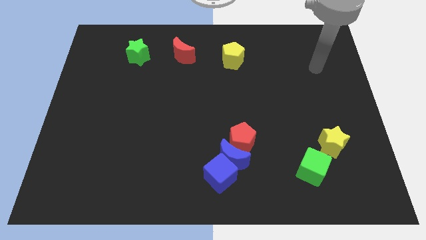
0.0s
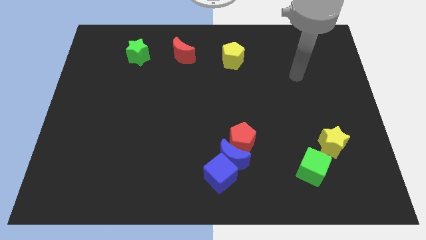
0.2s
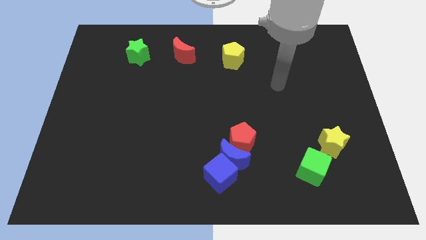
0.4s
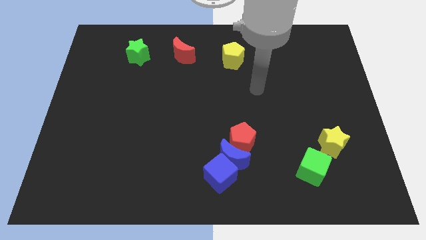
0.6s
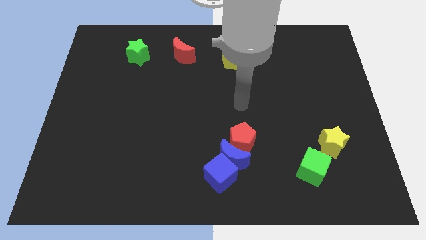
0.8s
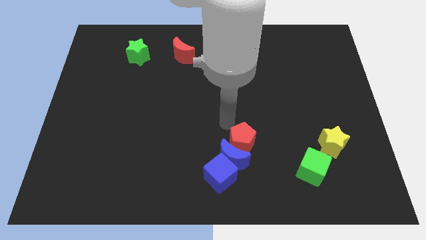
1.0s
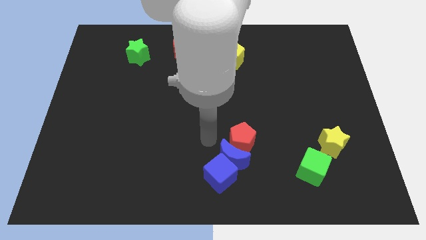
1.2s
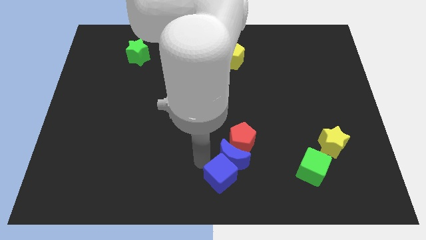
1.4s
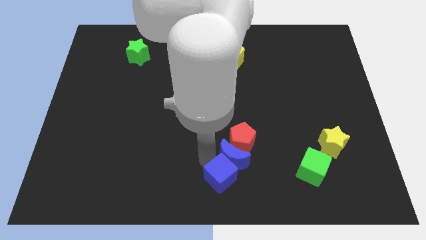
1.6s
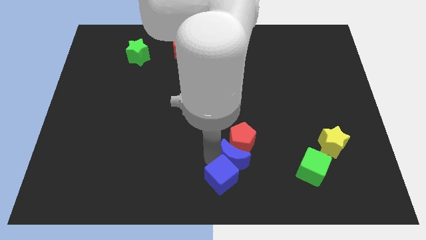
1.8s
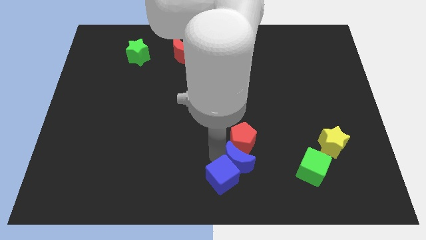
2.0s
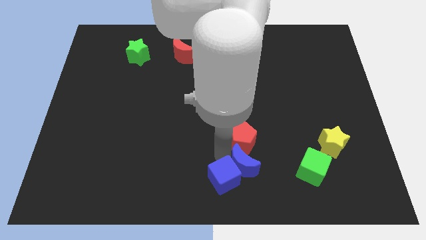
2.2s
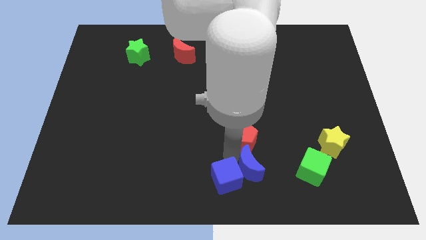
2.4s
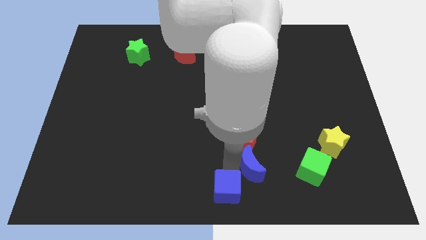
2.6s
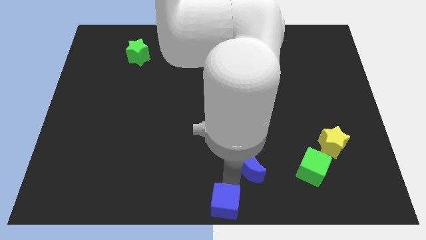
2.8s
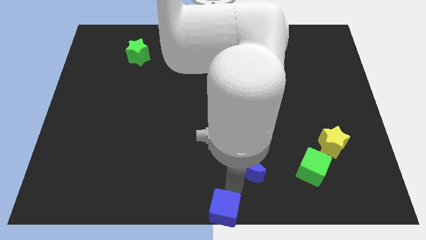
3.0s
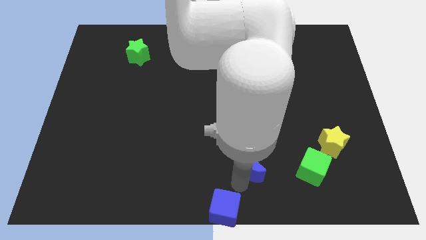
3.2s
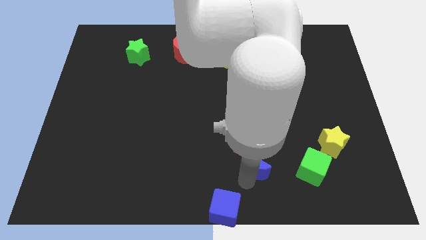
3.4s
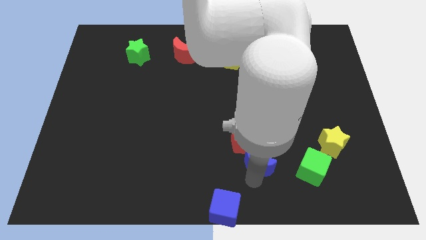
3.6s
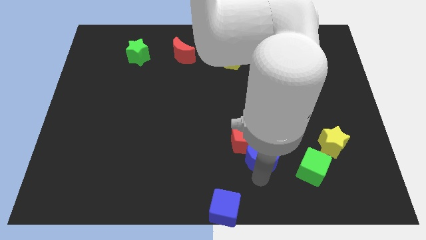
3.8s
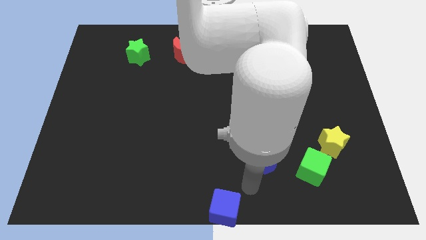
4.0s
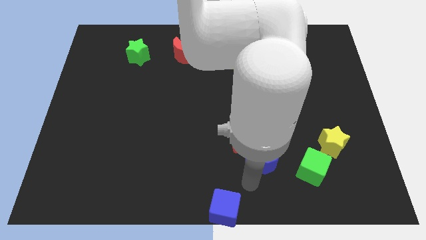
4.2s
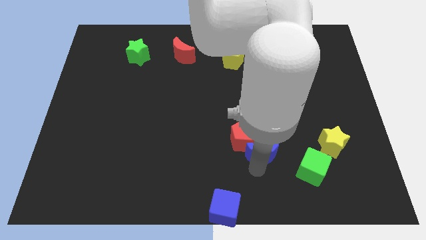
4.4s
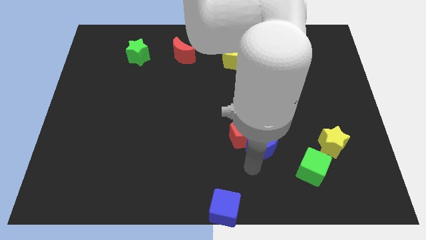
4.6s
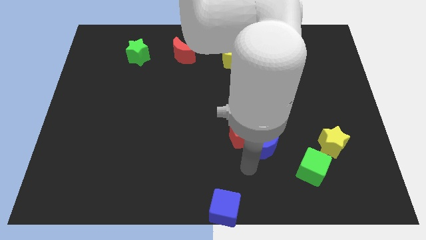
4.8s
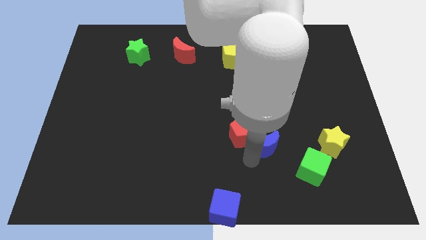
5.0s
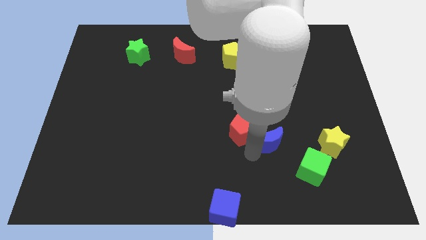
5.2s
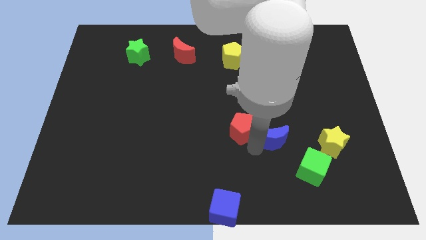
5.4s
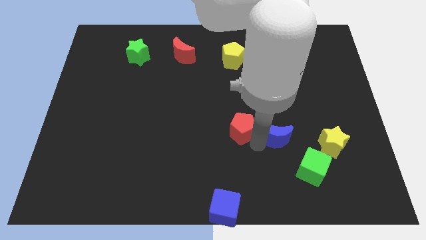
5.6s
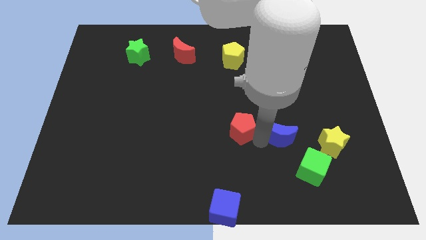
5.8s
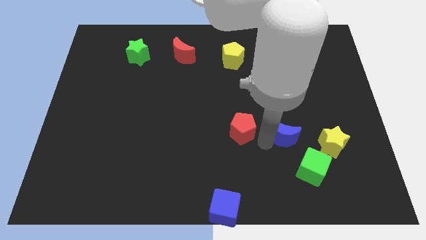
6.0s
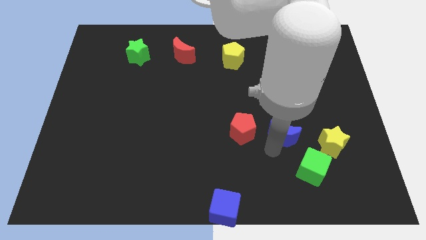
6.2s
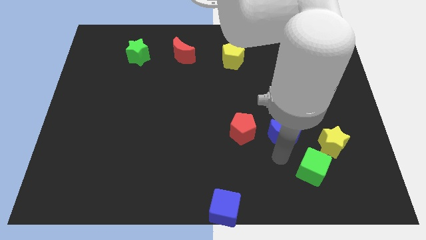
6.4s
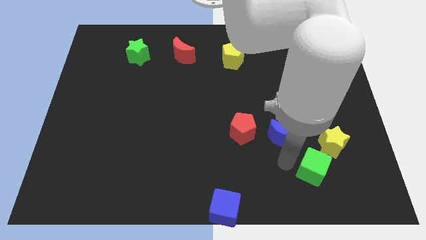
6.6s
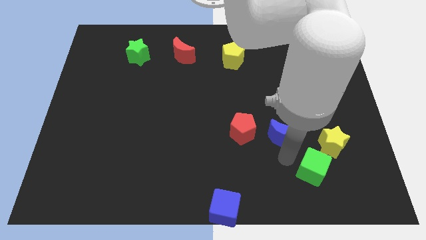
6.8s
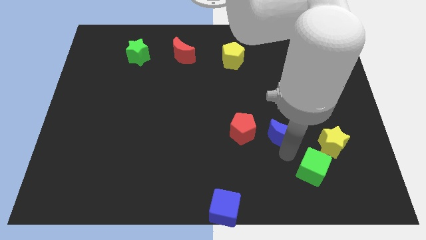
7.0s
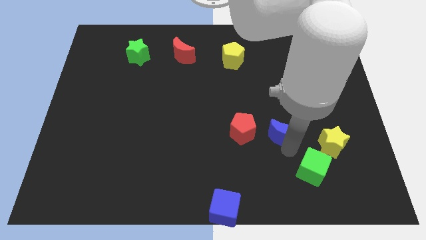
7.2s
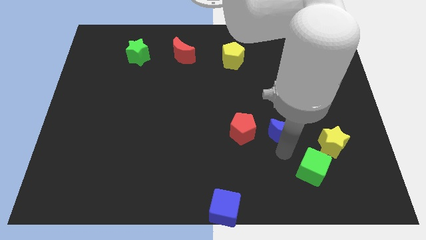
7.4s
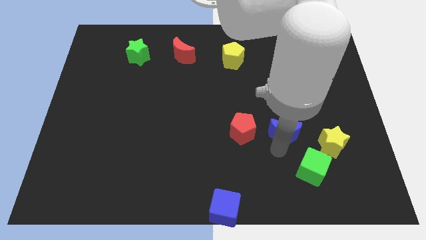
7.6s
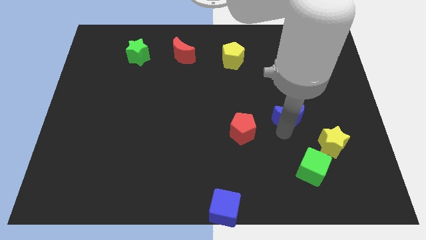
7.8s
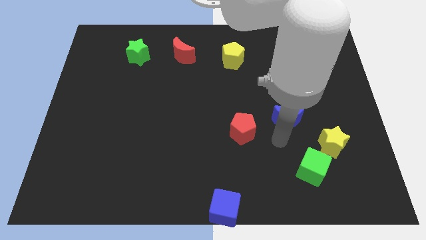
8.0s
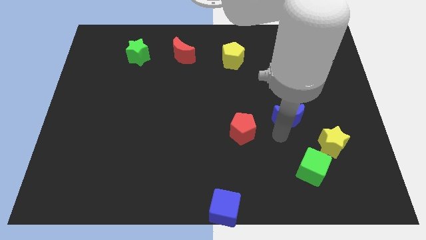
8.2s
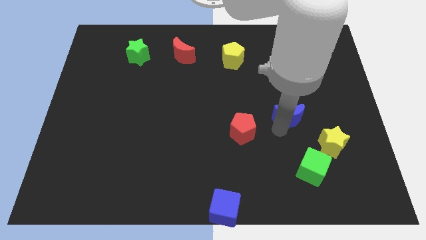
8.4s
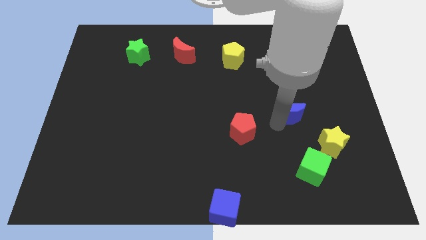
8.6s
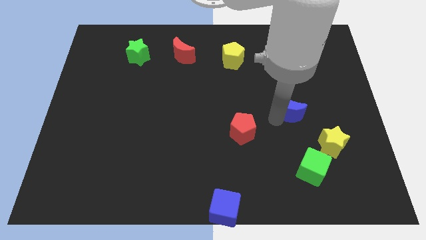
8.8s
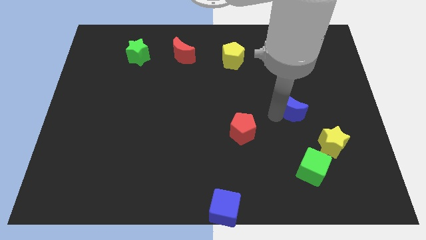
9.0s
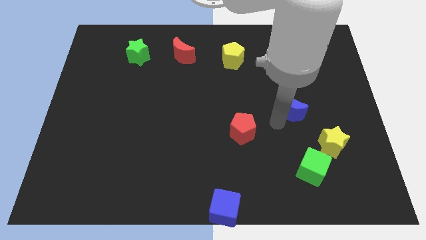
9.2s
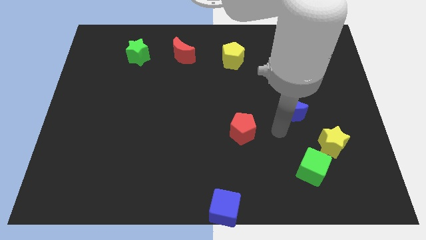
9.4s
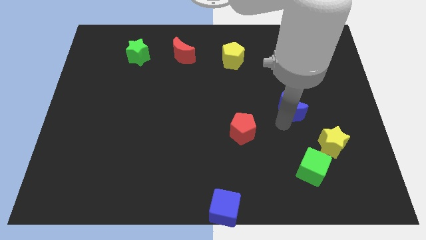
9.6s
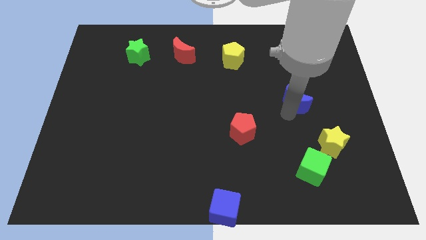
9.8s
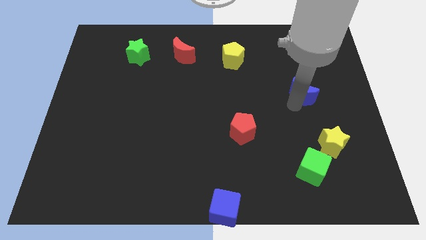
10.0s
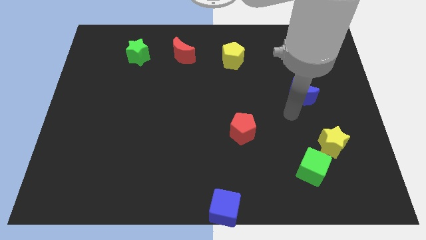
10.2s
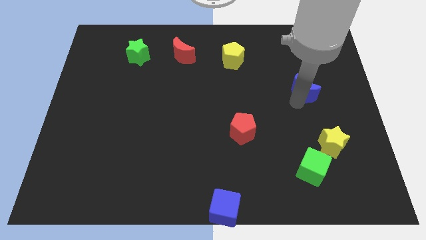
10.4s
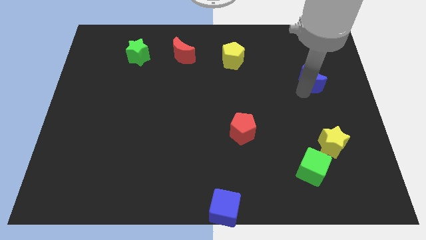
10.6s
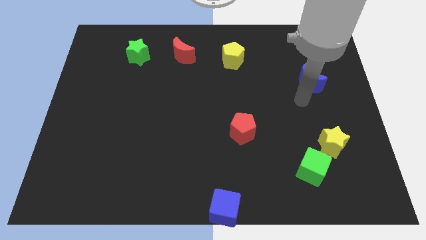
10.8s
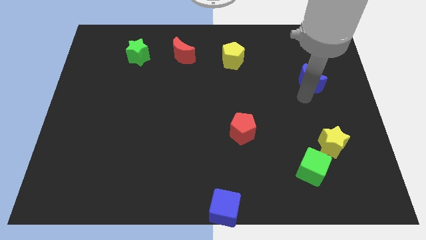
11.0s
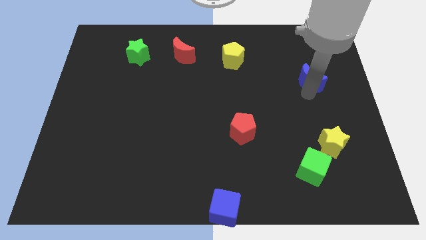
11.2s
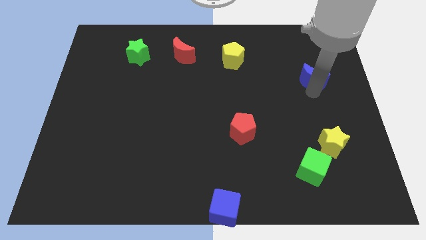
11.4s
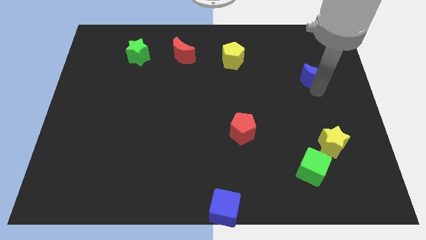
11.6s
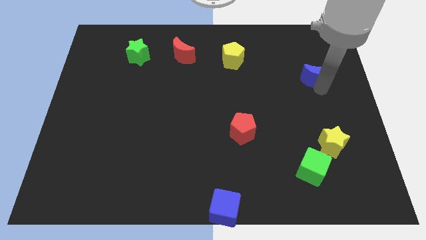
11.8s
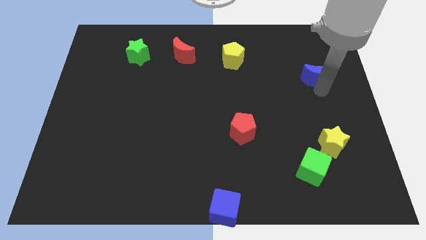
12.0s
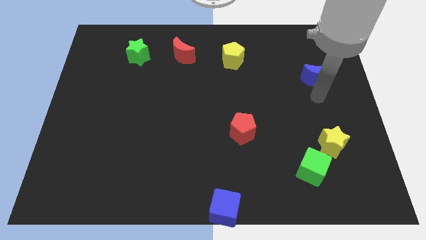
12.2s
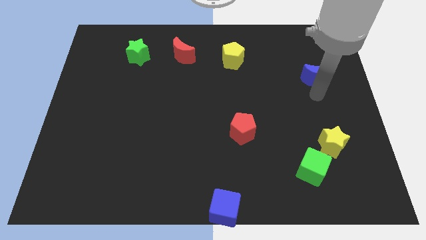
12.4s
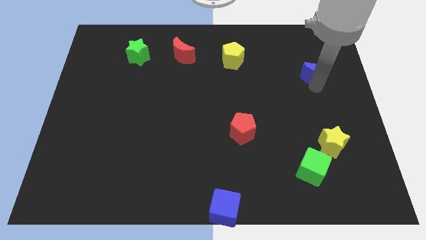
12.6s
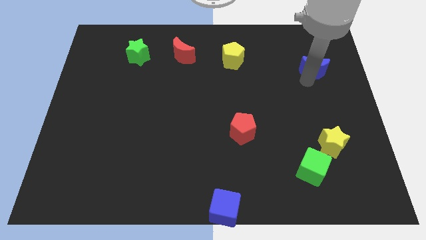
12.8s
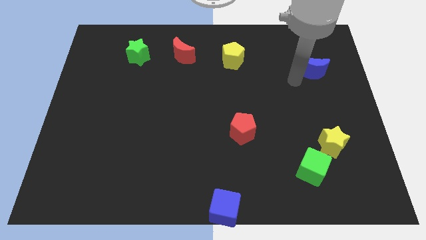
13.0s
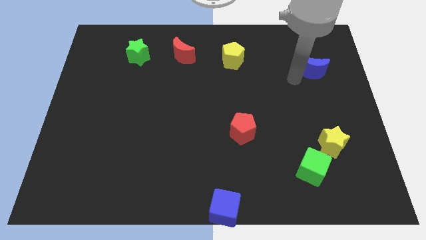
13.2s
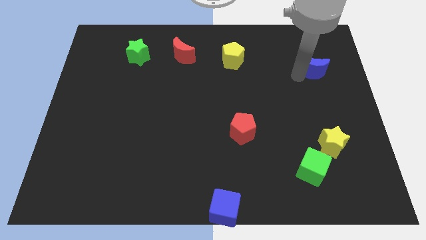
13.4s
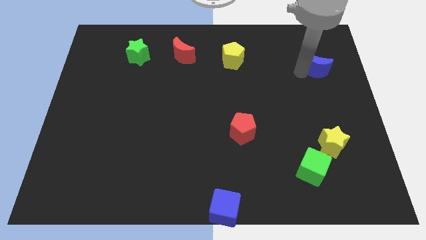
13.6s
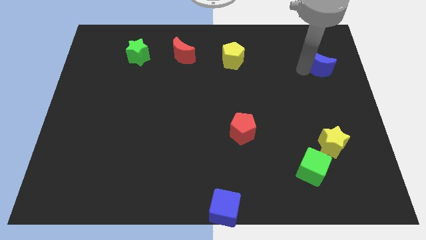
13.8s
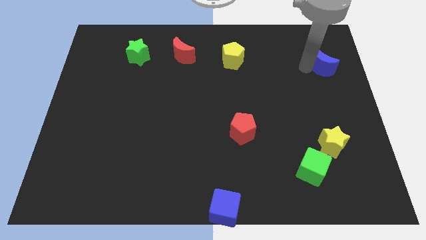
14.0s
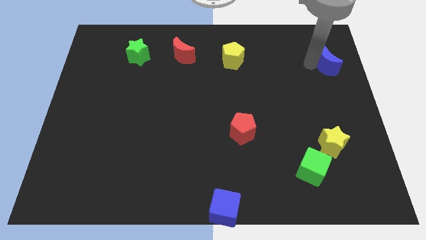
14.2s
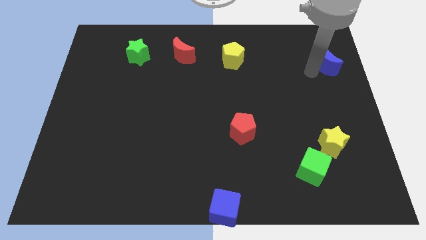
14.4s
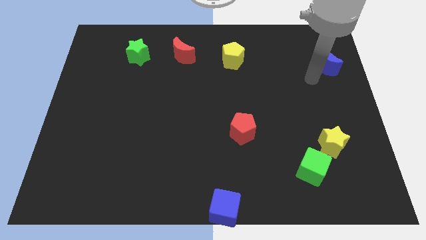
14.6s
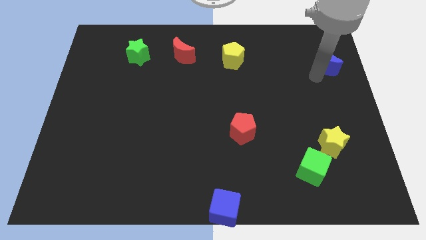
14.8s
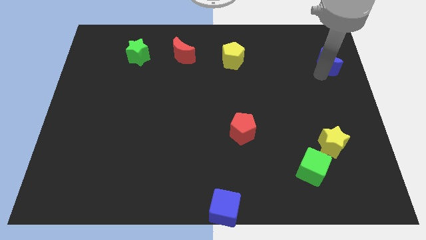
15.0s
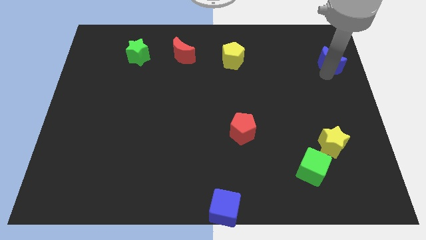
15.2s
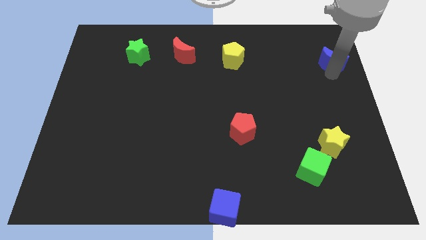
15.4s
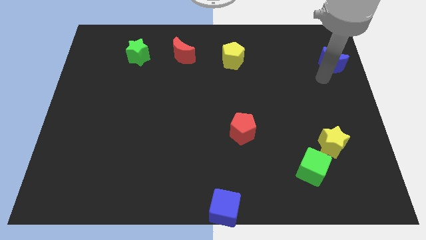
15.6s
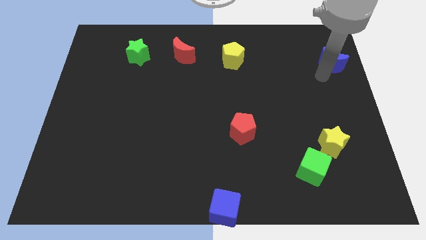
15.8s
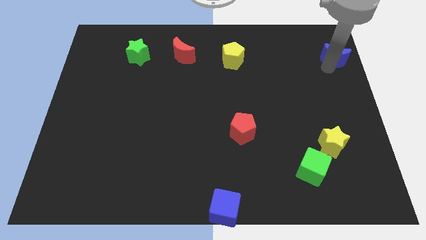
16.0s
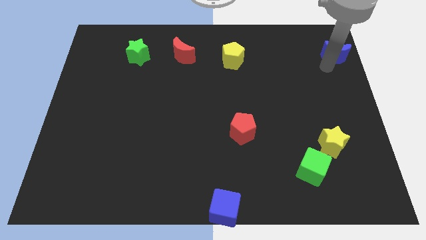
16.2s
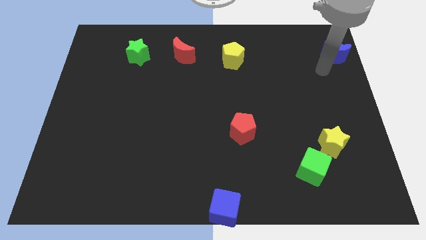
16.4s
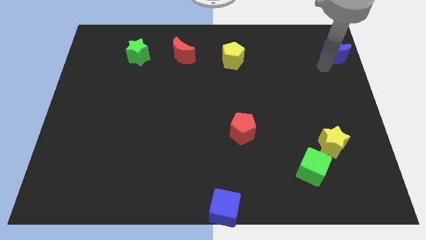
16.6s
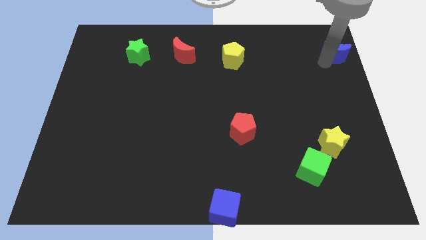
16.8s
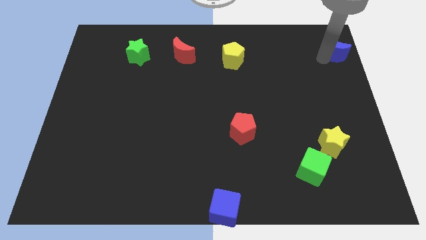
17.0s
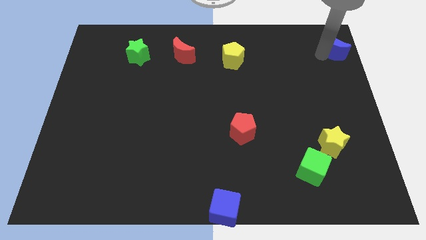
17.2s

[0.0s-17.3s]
push the blue moon to the top right corner
